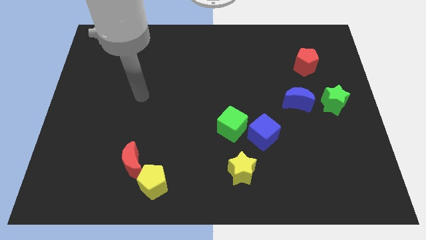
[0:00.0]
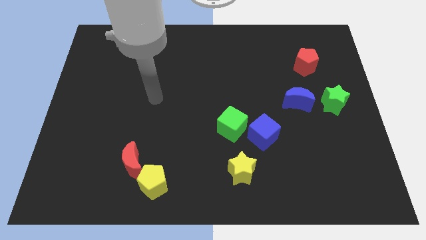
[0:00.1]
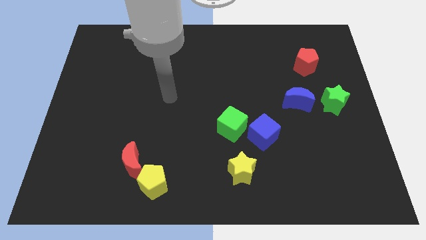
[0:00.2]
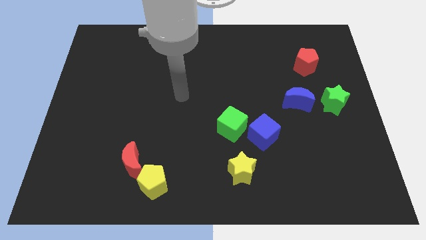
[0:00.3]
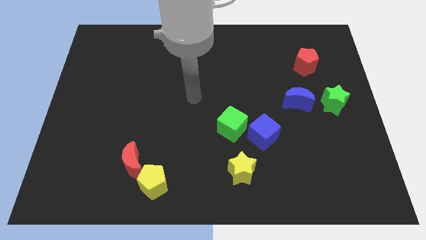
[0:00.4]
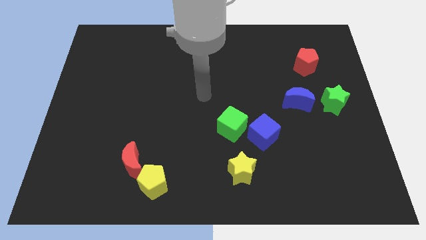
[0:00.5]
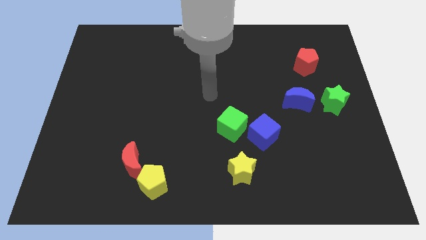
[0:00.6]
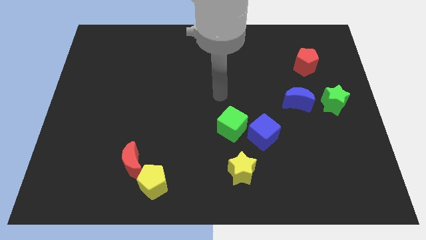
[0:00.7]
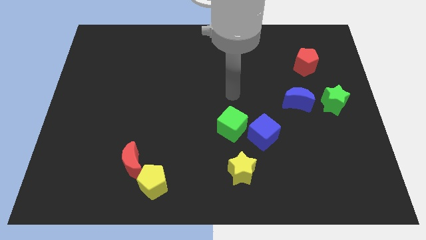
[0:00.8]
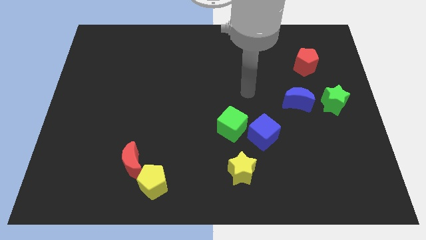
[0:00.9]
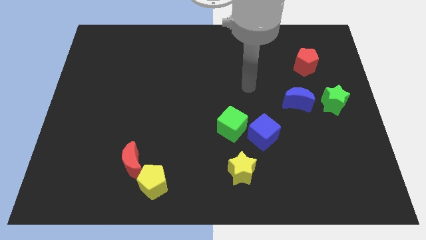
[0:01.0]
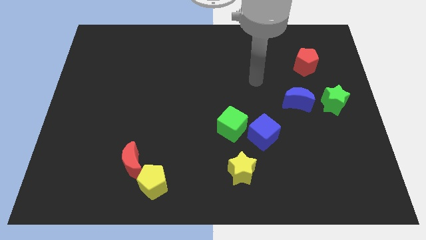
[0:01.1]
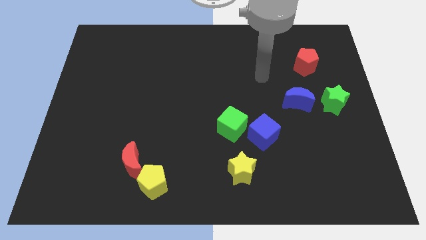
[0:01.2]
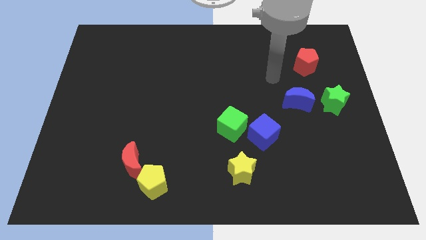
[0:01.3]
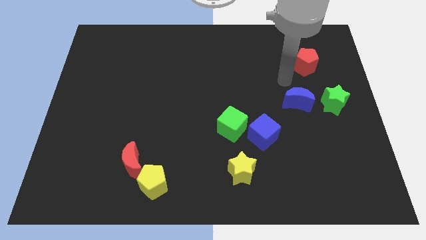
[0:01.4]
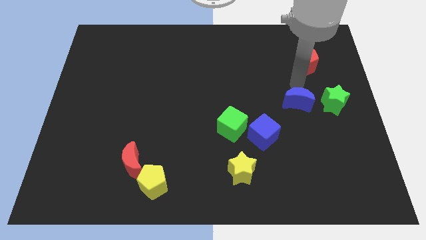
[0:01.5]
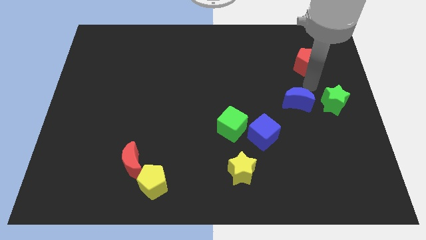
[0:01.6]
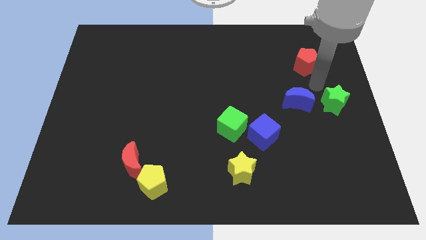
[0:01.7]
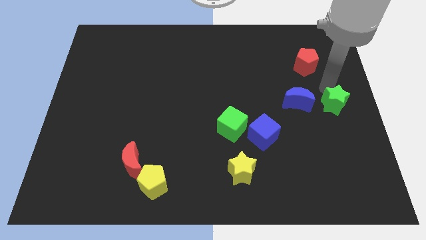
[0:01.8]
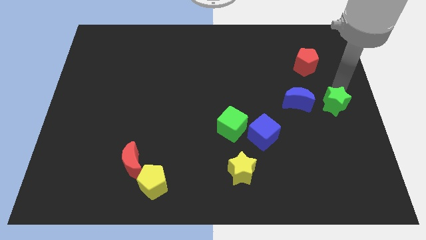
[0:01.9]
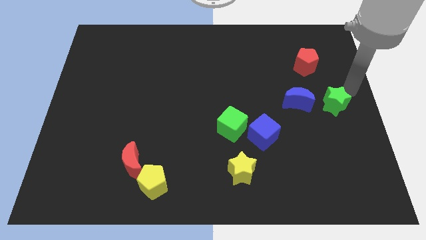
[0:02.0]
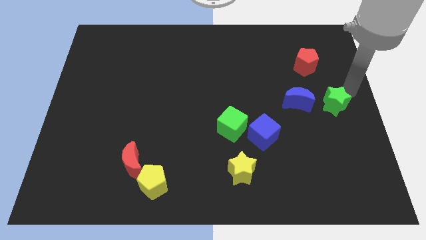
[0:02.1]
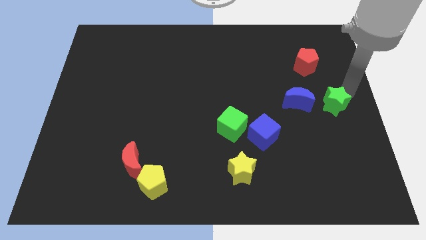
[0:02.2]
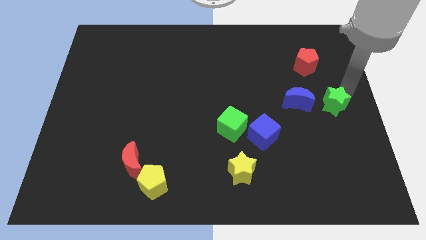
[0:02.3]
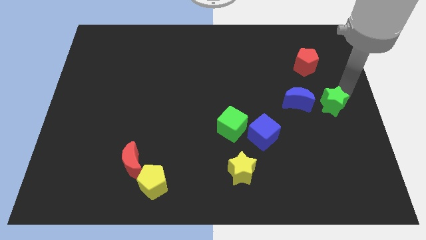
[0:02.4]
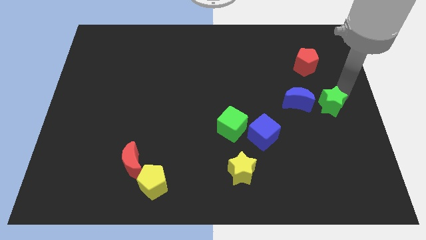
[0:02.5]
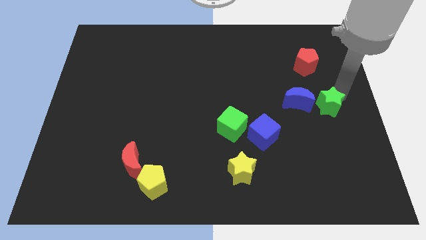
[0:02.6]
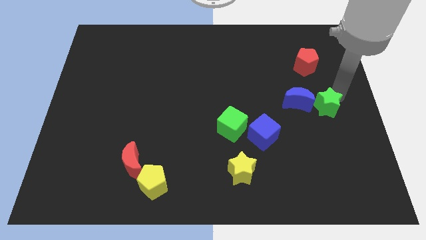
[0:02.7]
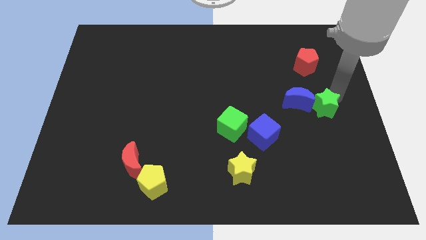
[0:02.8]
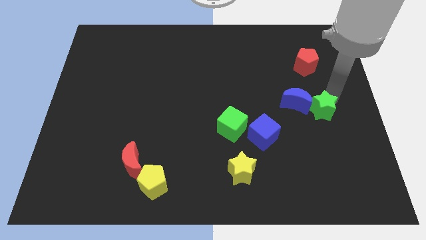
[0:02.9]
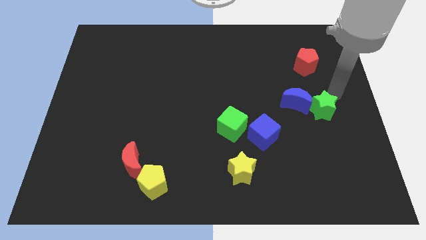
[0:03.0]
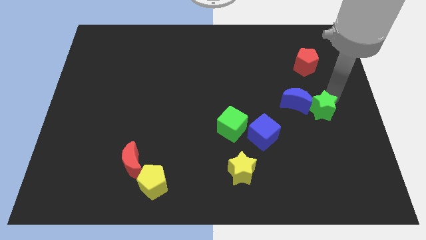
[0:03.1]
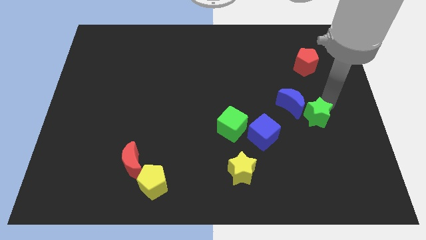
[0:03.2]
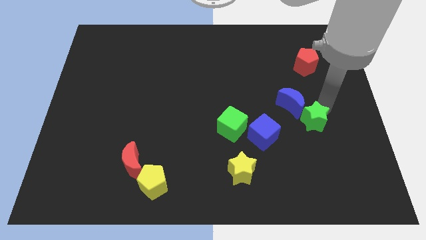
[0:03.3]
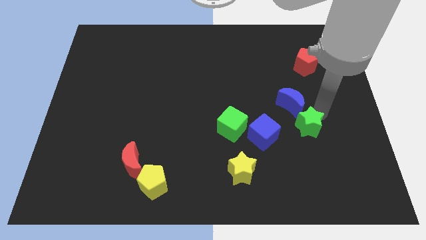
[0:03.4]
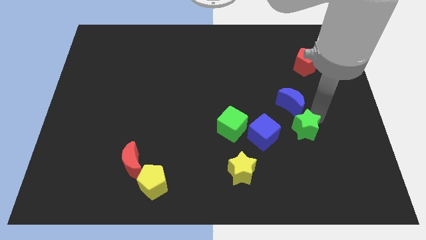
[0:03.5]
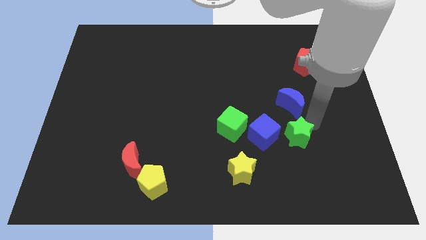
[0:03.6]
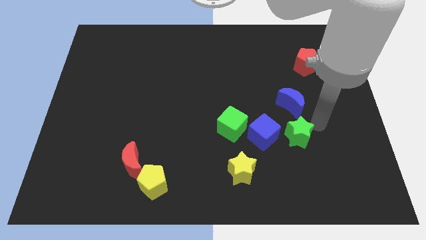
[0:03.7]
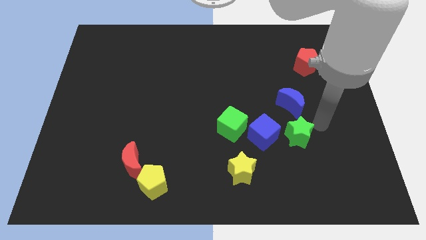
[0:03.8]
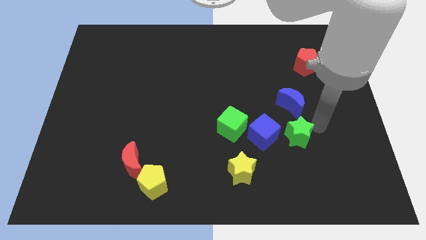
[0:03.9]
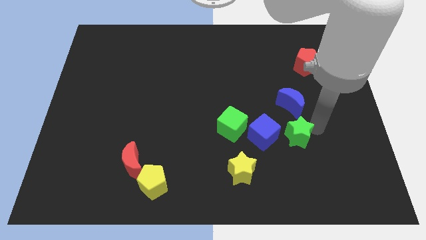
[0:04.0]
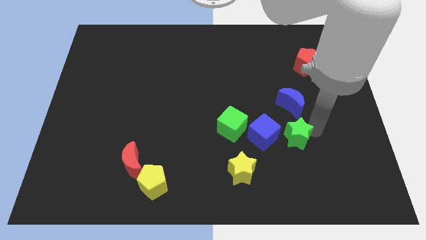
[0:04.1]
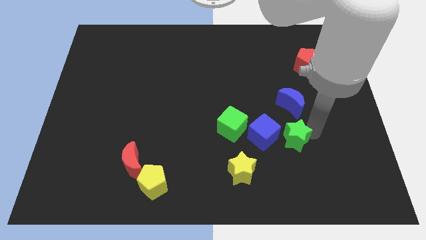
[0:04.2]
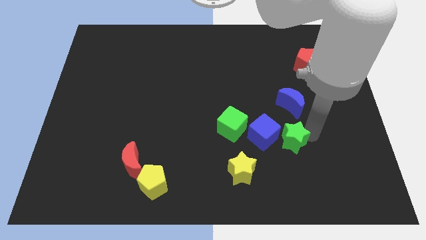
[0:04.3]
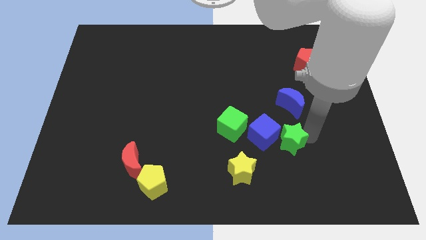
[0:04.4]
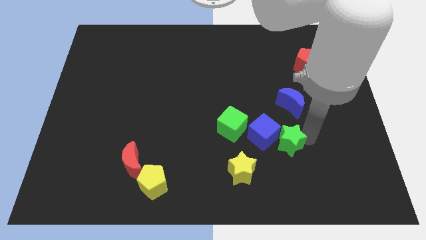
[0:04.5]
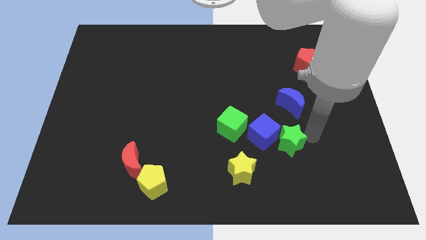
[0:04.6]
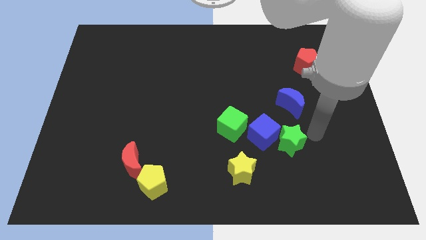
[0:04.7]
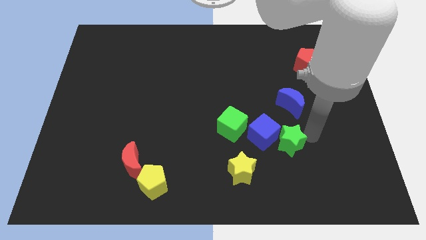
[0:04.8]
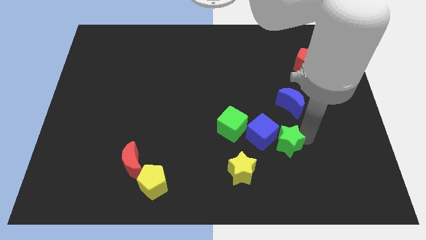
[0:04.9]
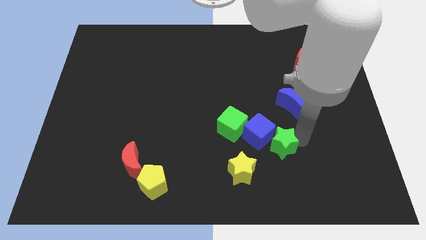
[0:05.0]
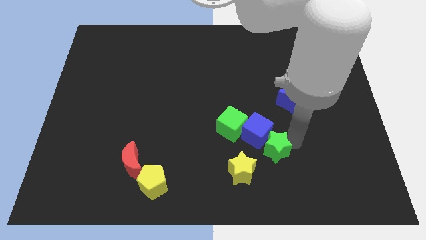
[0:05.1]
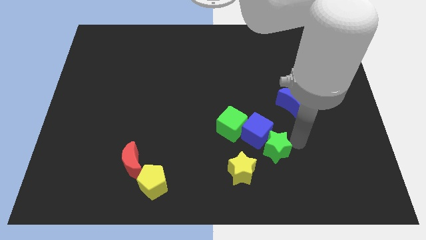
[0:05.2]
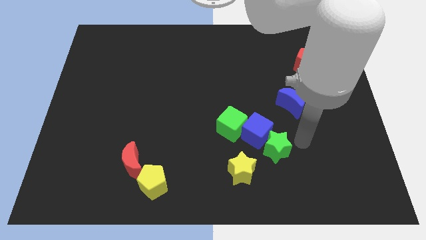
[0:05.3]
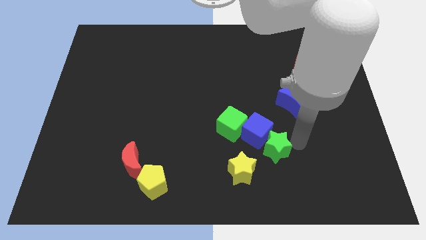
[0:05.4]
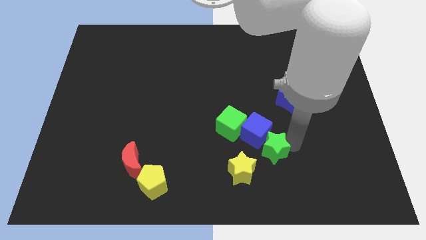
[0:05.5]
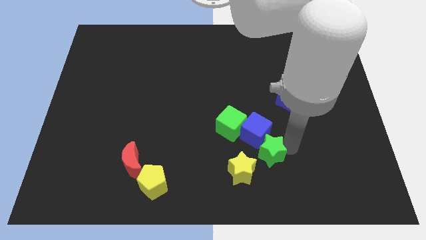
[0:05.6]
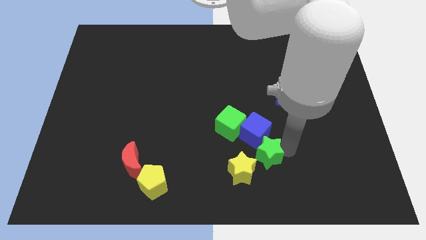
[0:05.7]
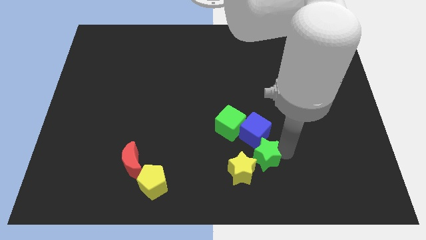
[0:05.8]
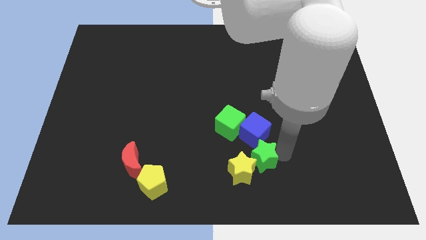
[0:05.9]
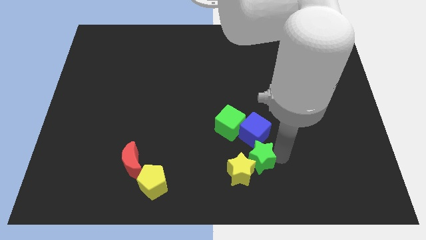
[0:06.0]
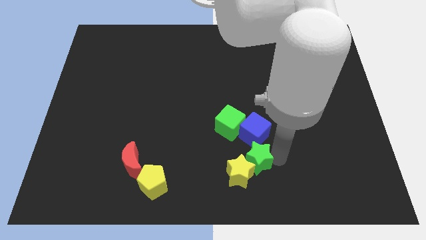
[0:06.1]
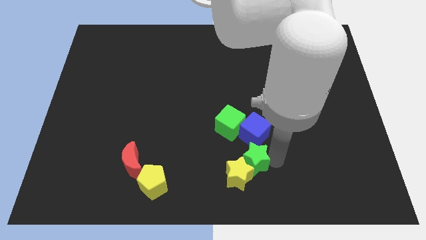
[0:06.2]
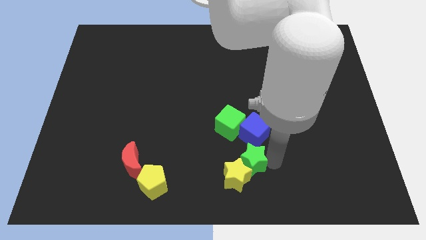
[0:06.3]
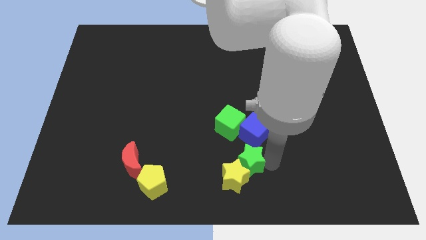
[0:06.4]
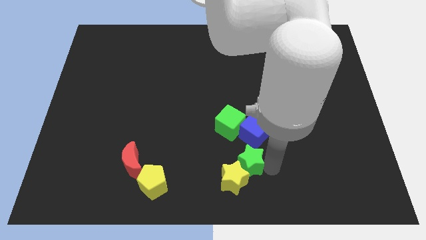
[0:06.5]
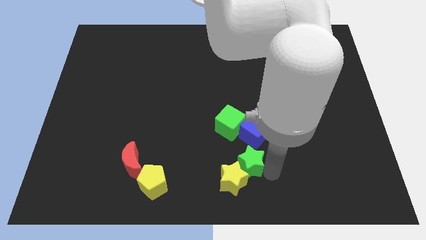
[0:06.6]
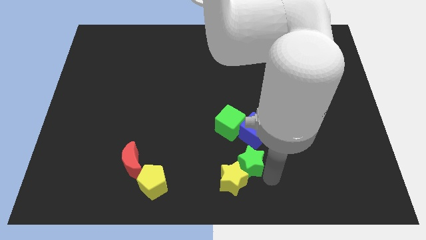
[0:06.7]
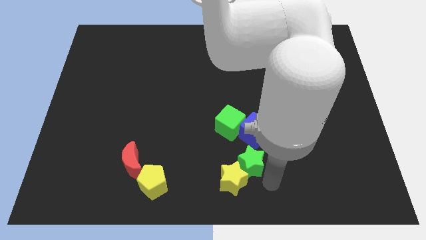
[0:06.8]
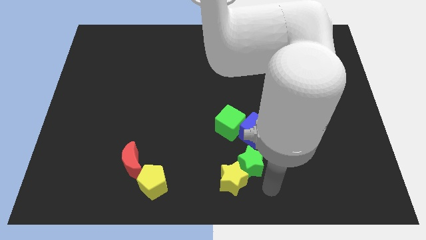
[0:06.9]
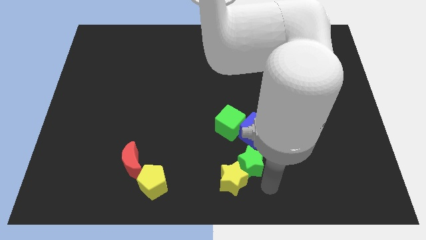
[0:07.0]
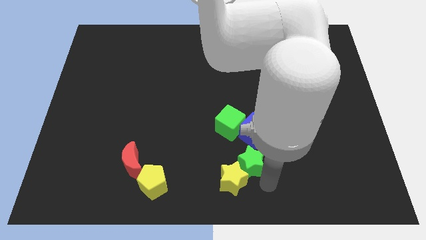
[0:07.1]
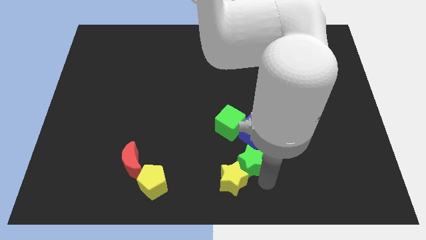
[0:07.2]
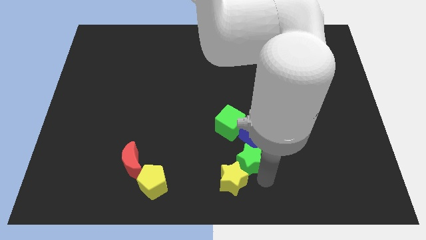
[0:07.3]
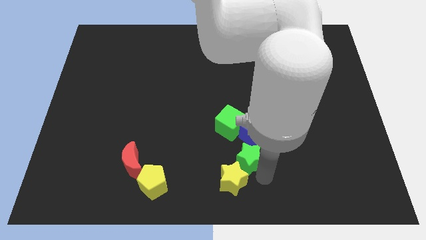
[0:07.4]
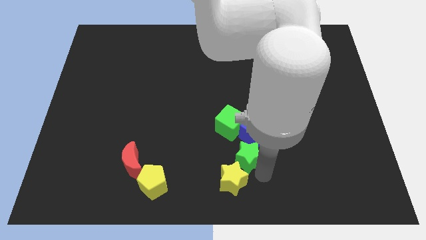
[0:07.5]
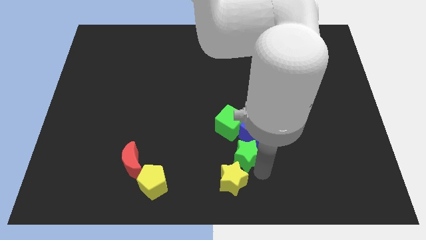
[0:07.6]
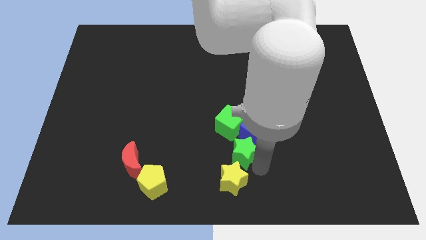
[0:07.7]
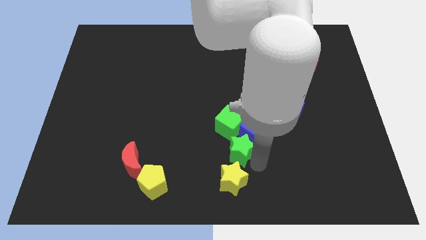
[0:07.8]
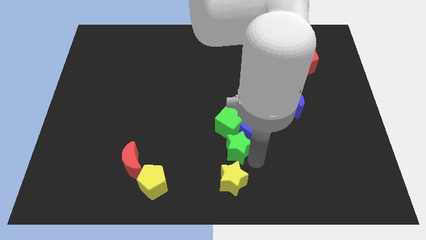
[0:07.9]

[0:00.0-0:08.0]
push the green star to the left of the blue cube
